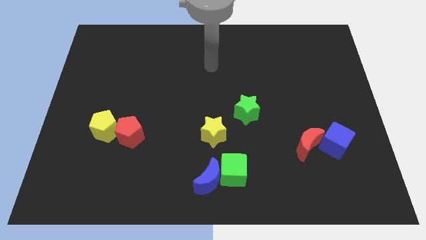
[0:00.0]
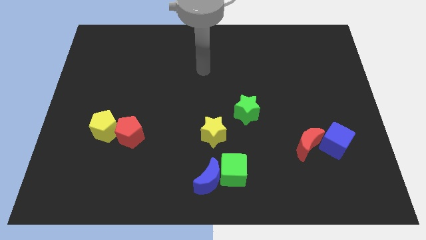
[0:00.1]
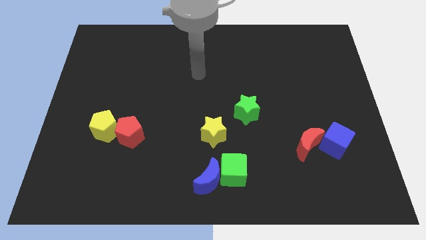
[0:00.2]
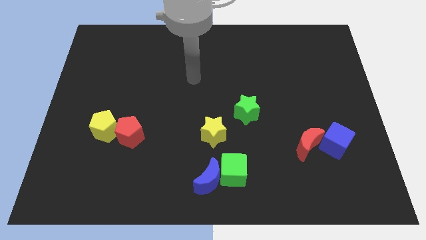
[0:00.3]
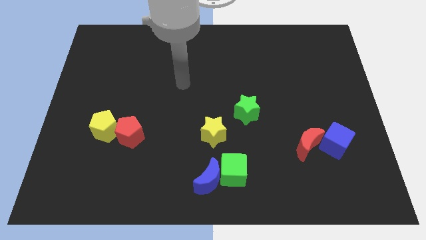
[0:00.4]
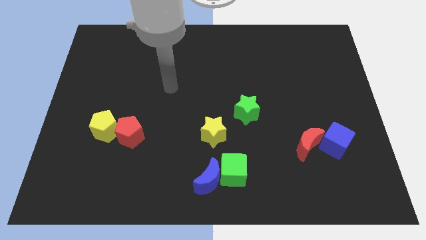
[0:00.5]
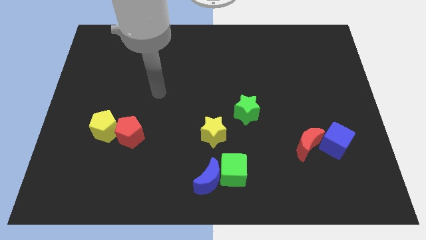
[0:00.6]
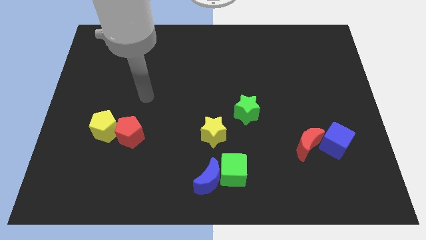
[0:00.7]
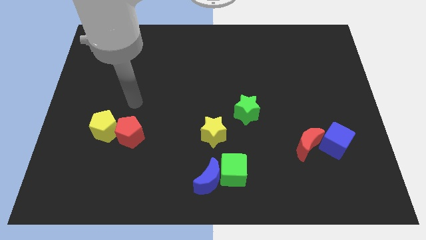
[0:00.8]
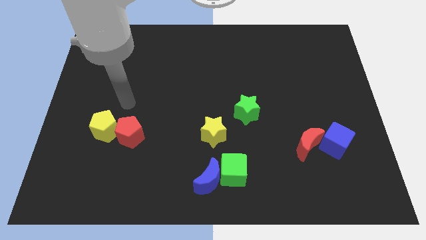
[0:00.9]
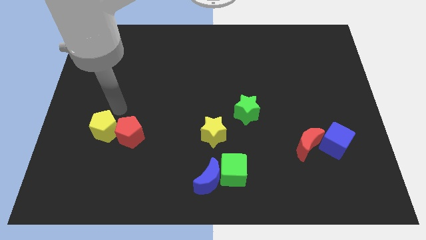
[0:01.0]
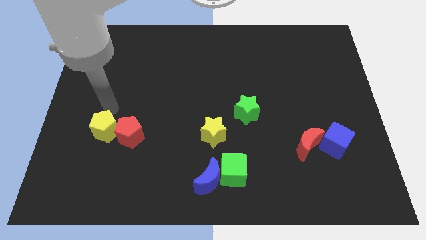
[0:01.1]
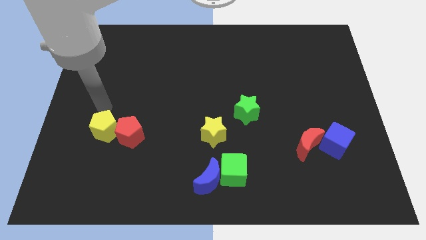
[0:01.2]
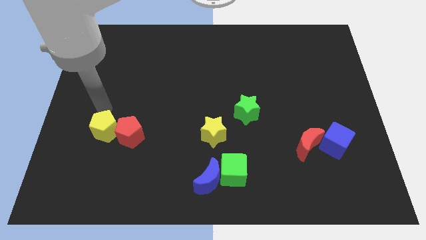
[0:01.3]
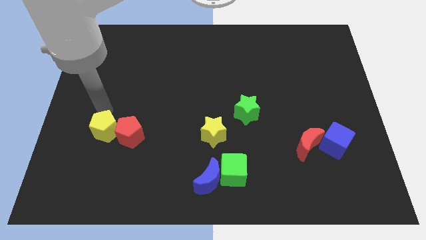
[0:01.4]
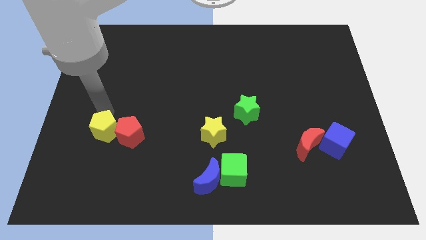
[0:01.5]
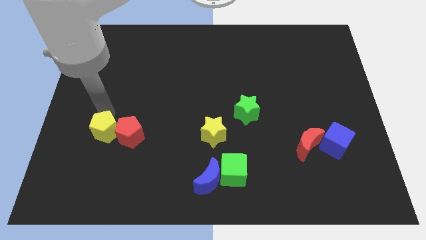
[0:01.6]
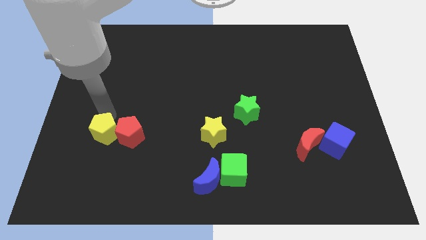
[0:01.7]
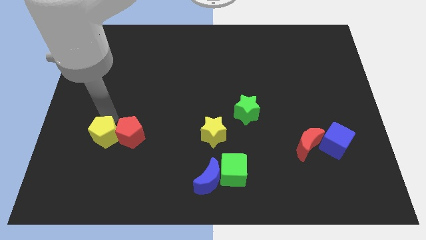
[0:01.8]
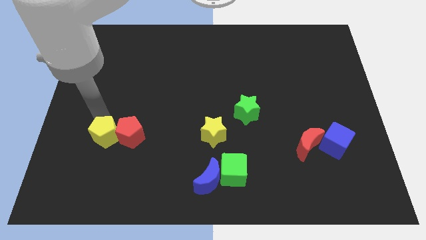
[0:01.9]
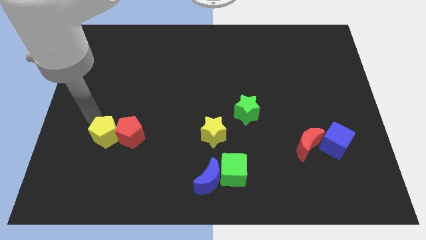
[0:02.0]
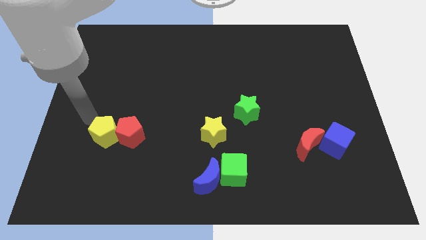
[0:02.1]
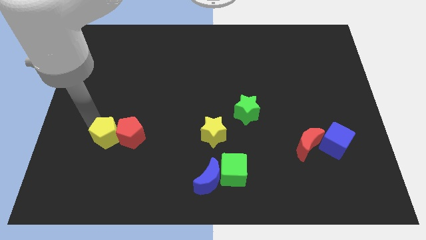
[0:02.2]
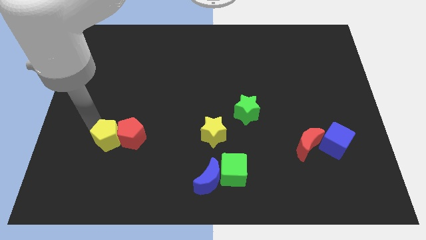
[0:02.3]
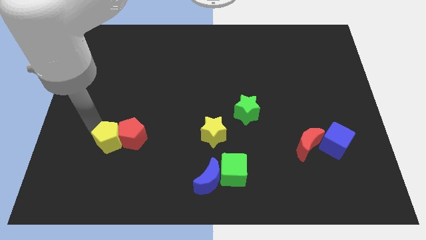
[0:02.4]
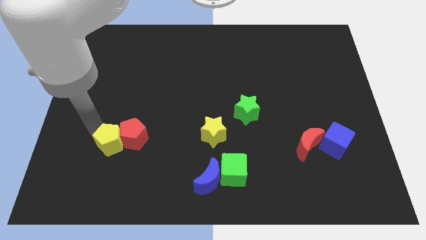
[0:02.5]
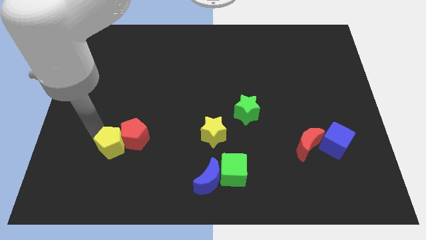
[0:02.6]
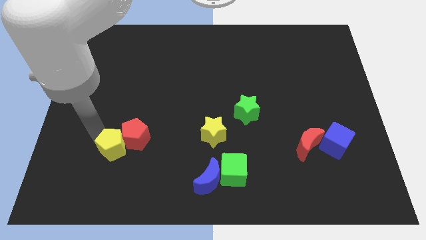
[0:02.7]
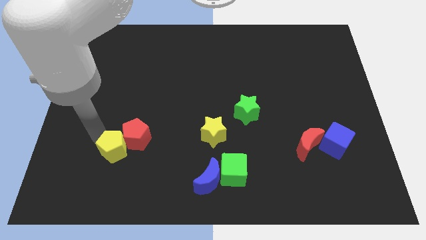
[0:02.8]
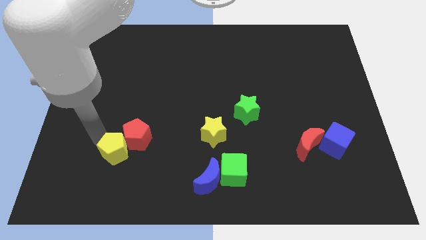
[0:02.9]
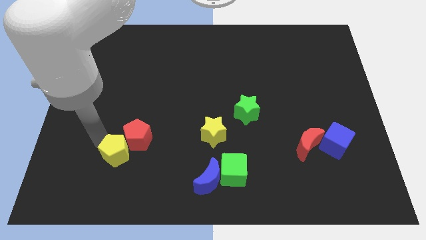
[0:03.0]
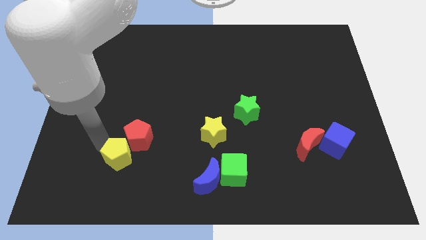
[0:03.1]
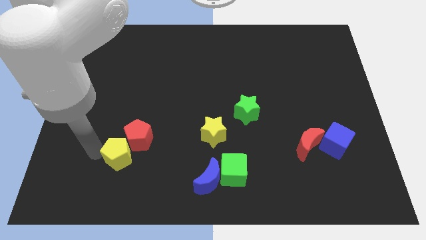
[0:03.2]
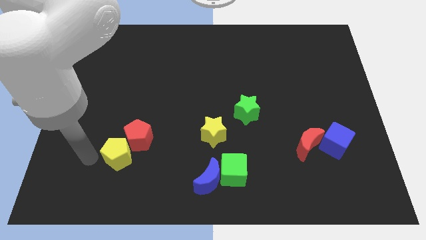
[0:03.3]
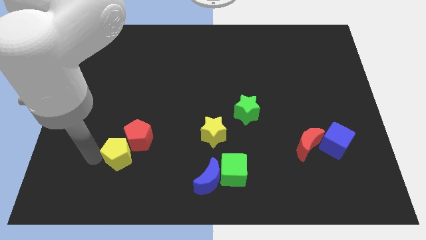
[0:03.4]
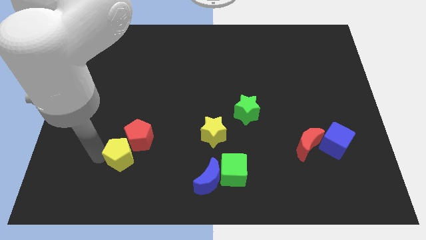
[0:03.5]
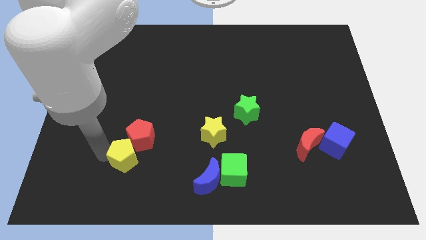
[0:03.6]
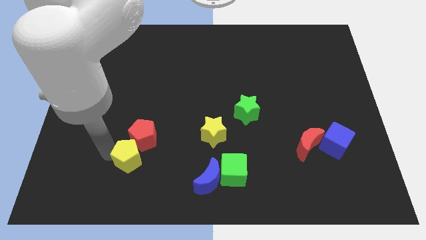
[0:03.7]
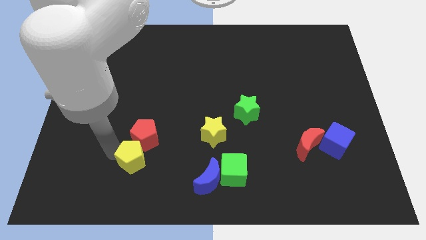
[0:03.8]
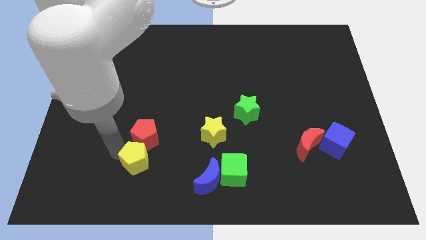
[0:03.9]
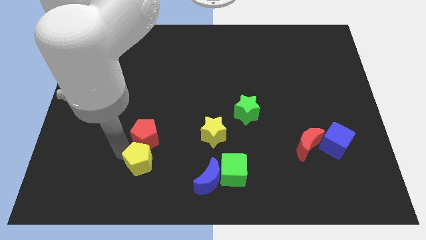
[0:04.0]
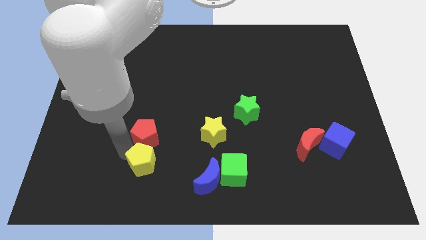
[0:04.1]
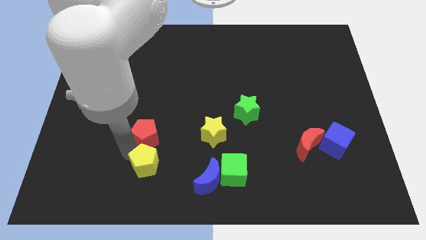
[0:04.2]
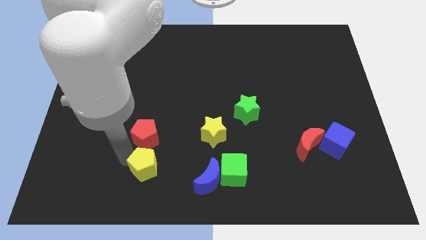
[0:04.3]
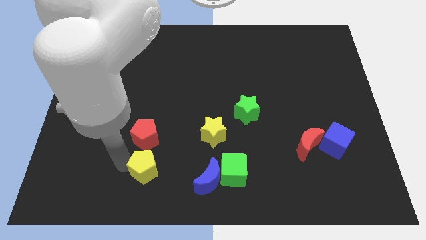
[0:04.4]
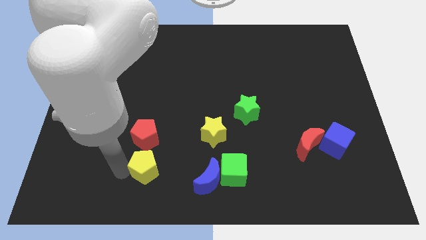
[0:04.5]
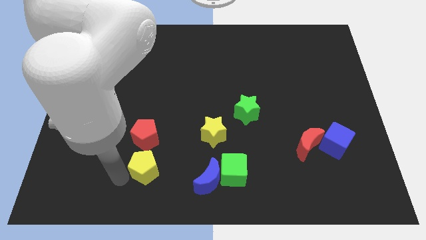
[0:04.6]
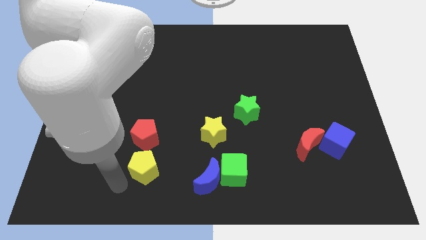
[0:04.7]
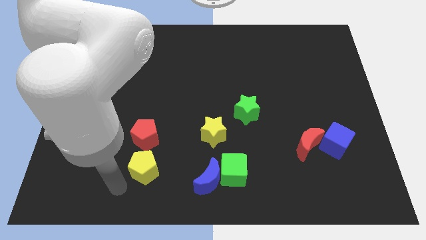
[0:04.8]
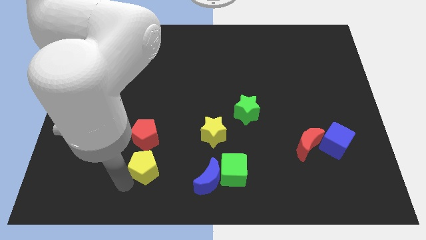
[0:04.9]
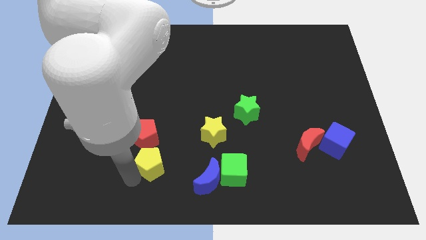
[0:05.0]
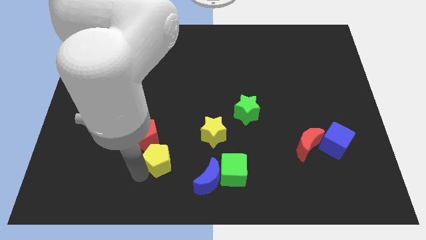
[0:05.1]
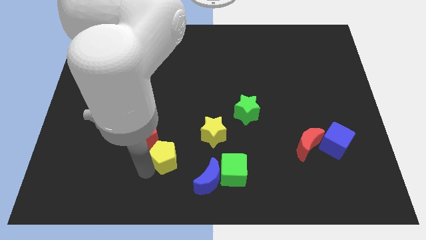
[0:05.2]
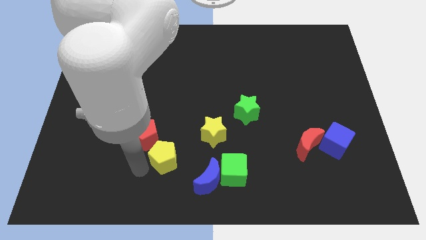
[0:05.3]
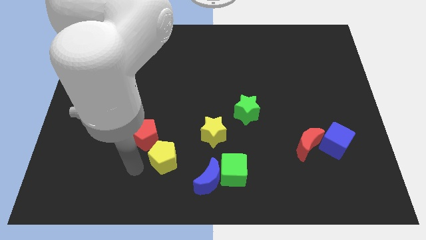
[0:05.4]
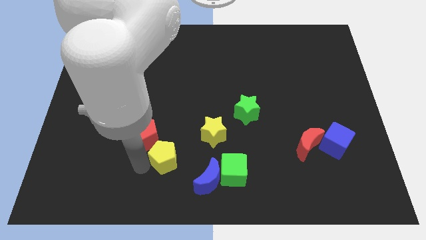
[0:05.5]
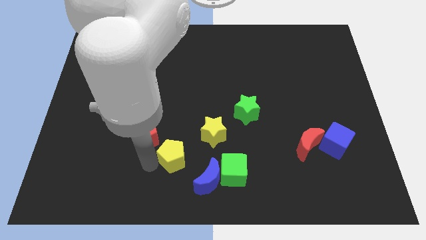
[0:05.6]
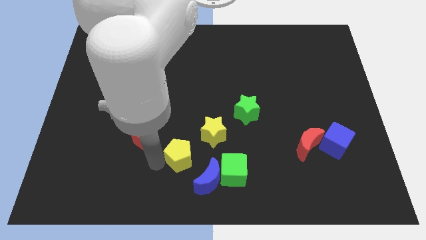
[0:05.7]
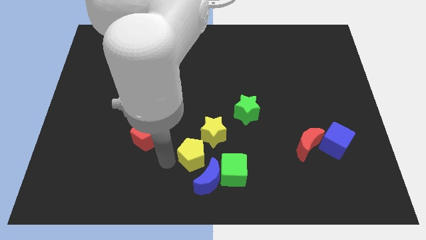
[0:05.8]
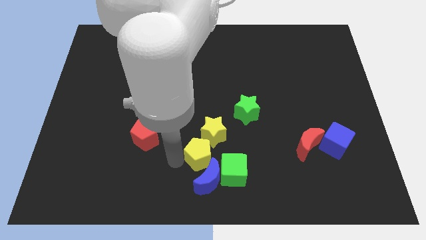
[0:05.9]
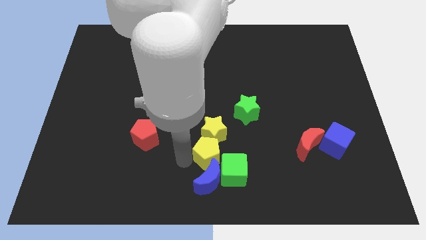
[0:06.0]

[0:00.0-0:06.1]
push the yellow pentagon right

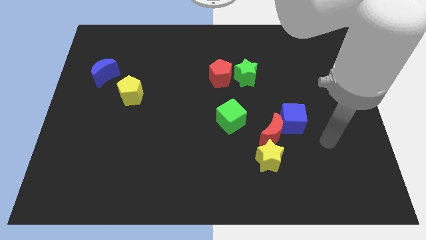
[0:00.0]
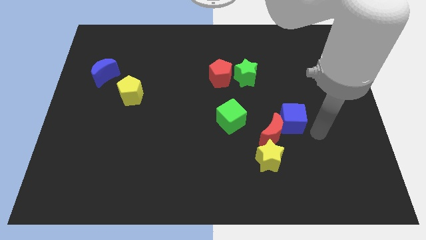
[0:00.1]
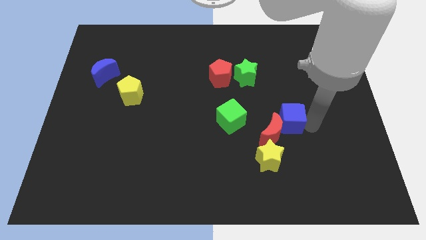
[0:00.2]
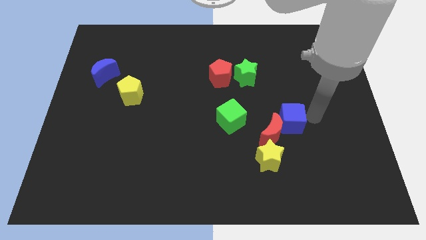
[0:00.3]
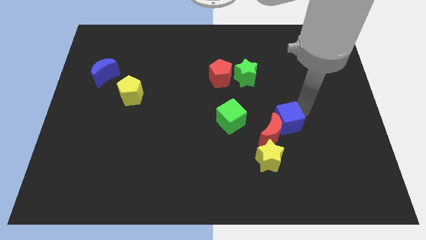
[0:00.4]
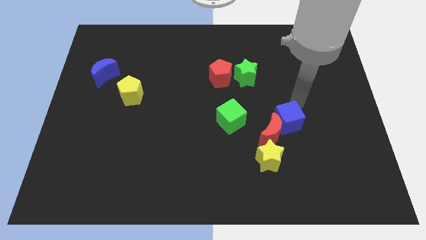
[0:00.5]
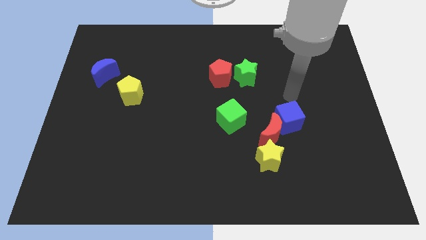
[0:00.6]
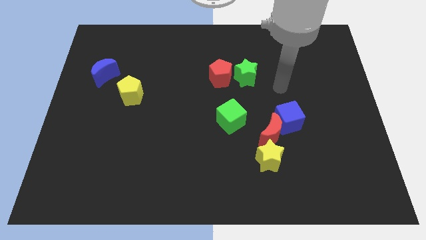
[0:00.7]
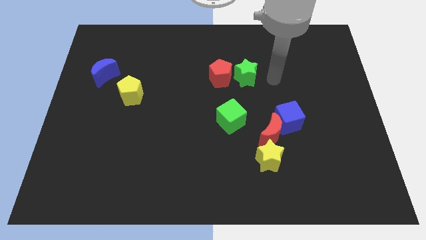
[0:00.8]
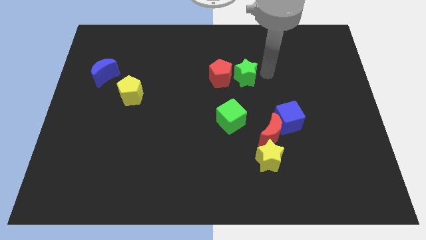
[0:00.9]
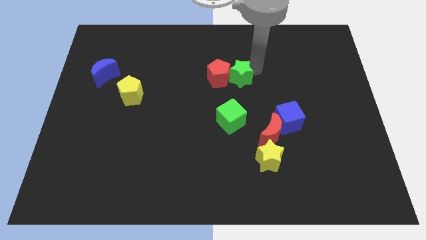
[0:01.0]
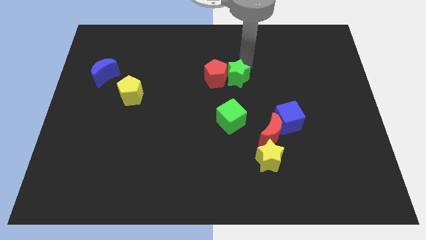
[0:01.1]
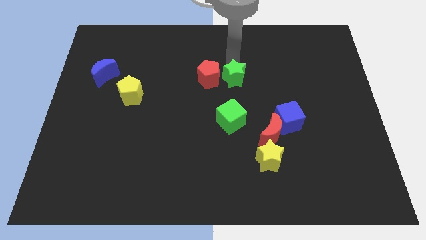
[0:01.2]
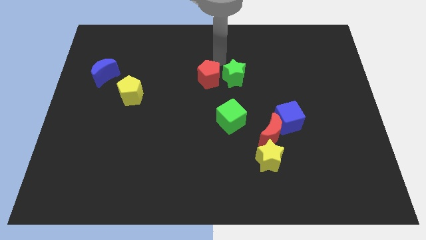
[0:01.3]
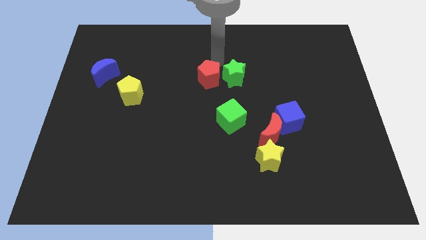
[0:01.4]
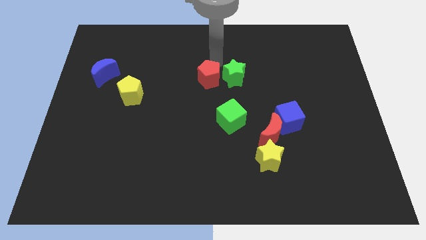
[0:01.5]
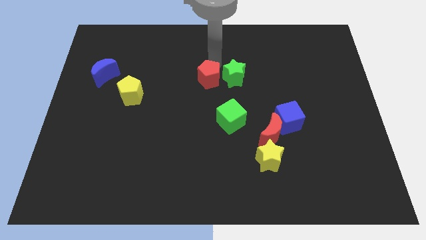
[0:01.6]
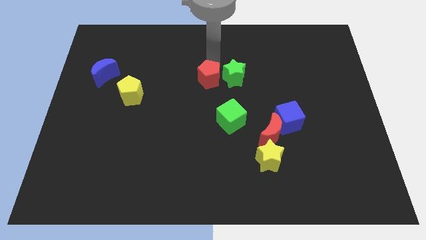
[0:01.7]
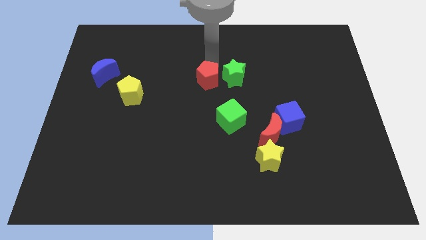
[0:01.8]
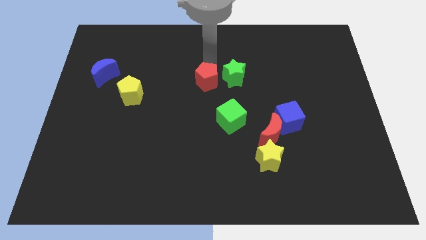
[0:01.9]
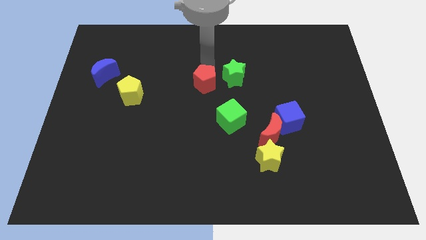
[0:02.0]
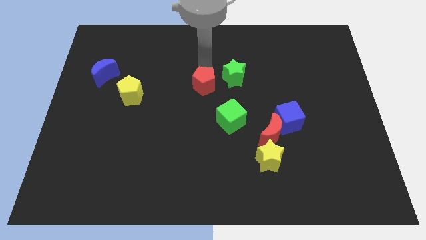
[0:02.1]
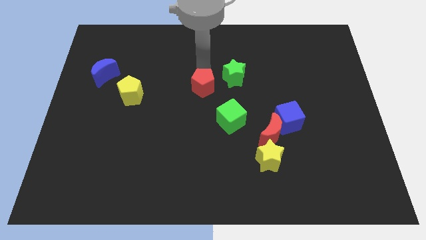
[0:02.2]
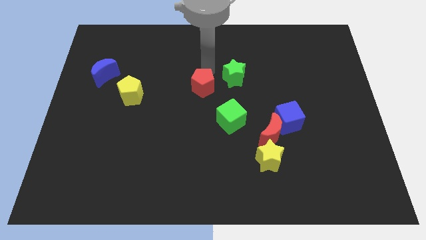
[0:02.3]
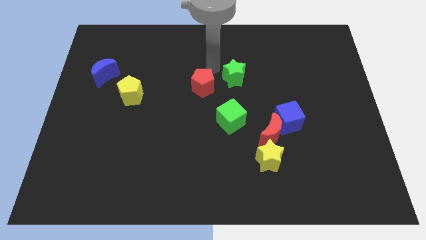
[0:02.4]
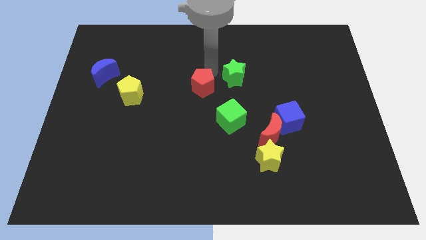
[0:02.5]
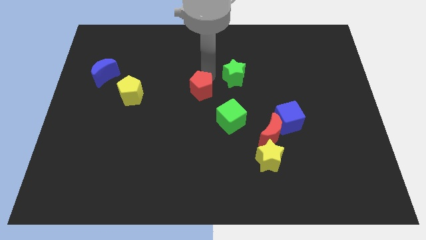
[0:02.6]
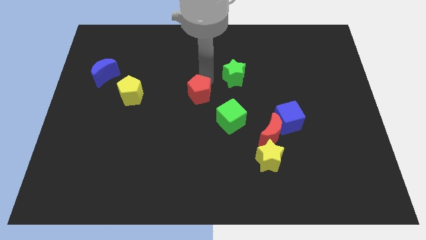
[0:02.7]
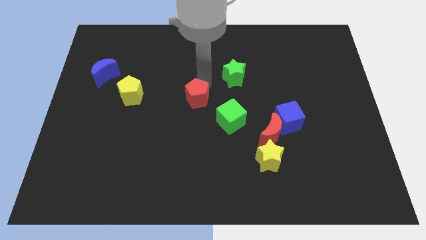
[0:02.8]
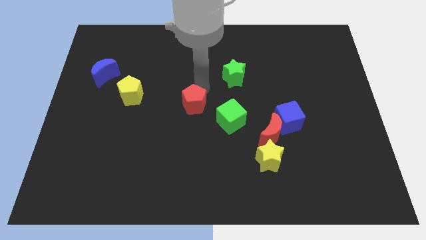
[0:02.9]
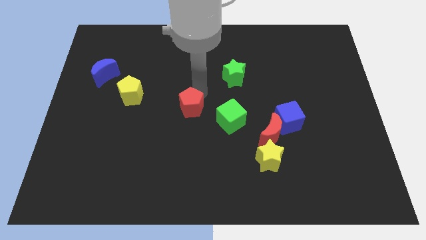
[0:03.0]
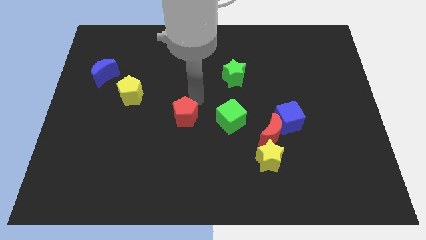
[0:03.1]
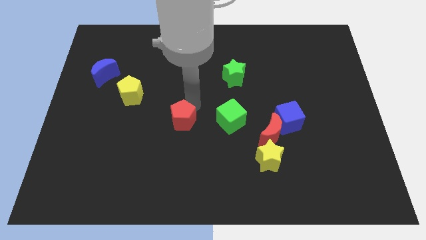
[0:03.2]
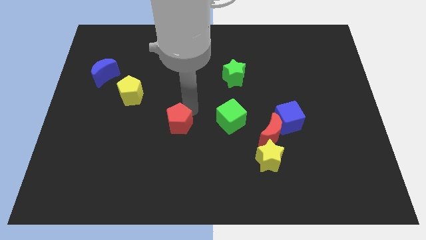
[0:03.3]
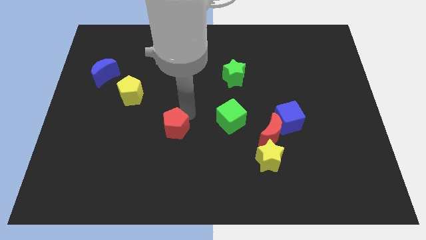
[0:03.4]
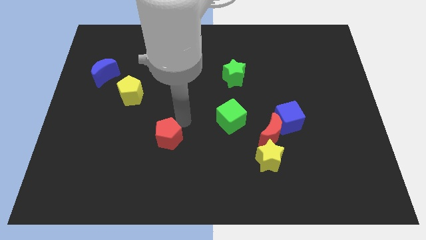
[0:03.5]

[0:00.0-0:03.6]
push the red pentagon downwards and left diagonally
